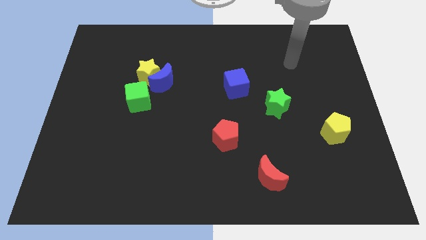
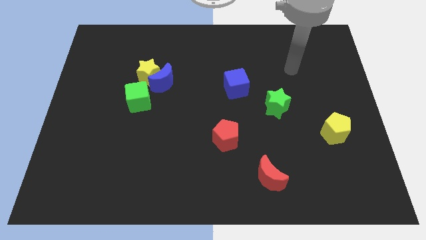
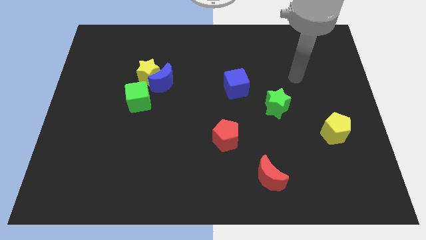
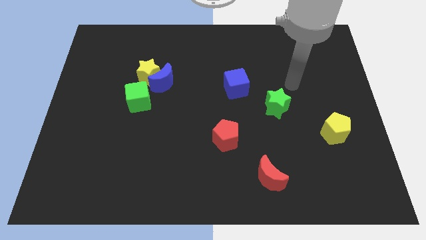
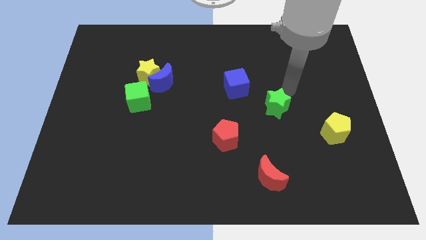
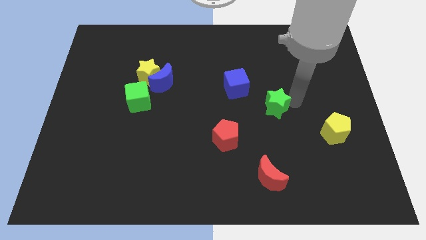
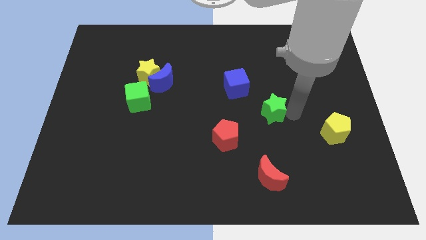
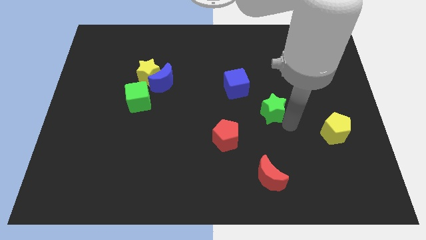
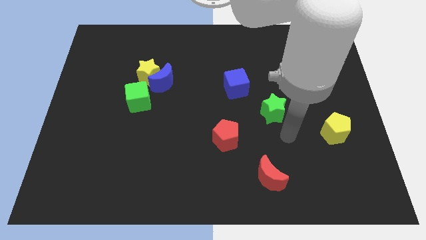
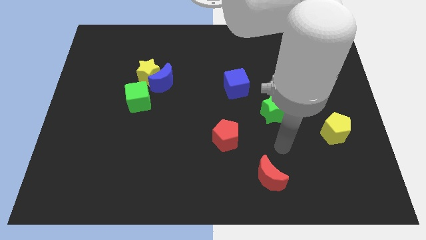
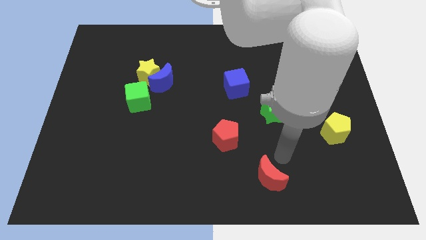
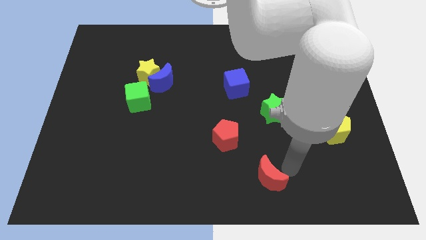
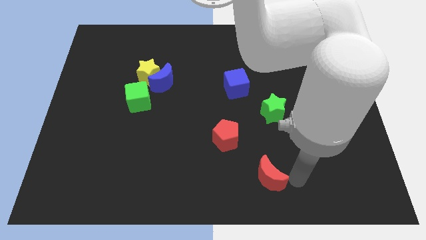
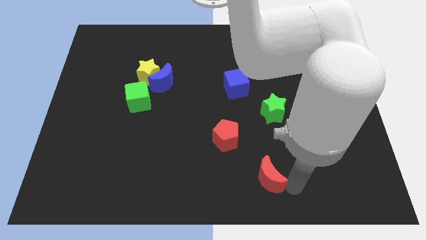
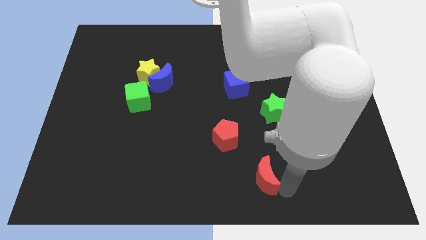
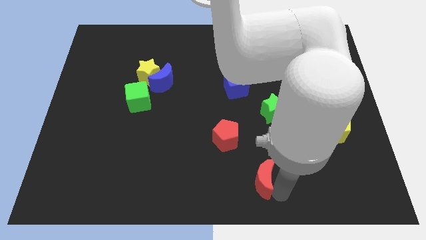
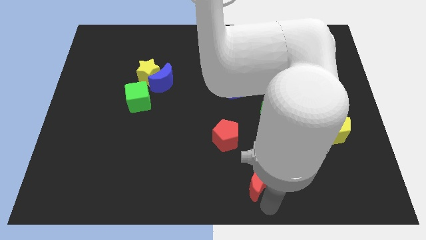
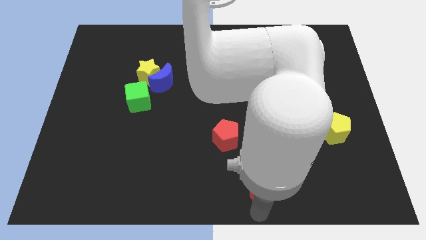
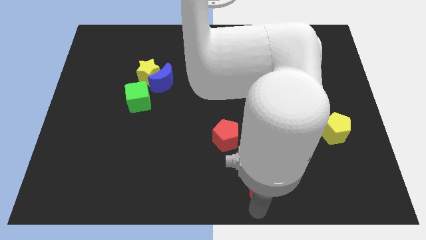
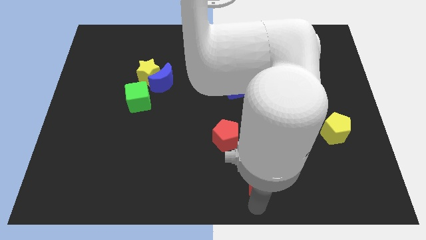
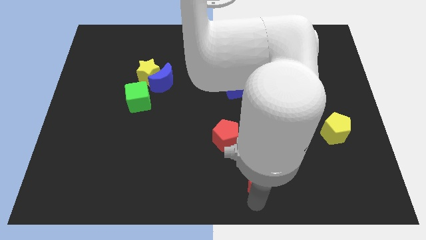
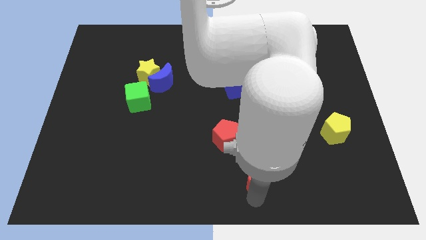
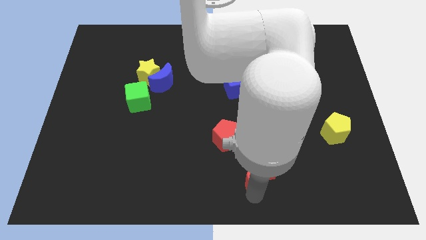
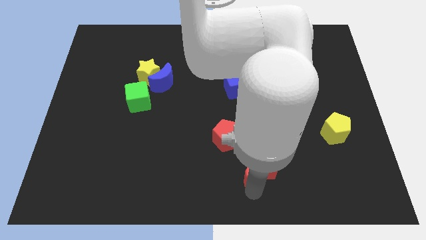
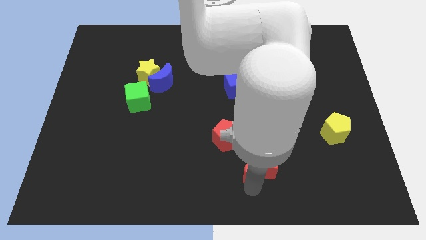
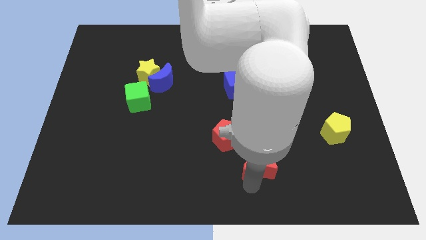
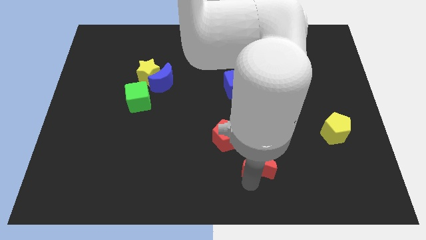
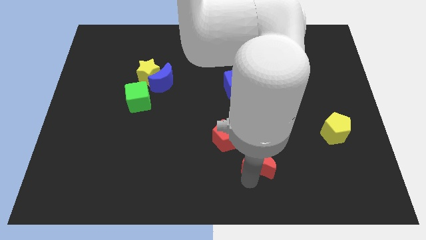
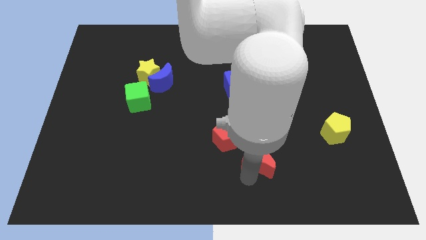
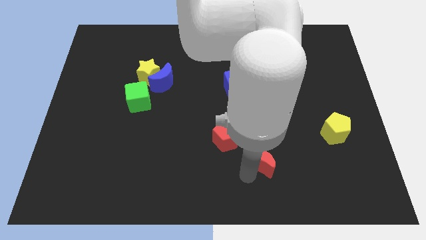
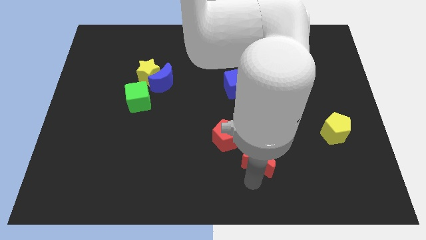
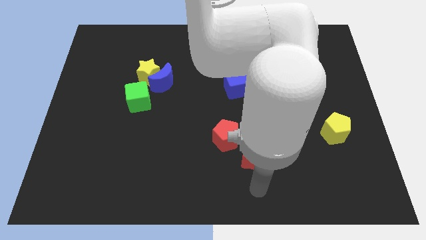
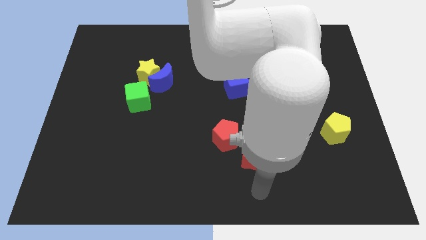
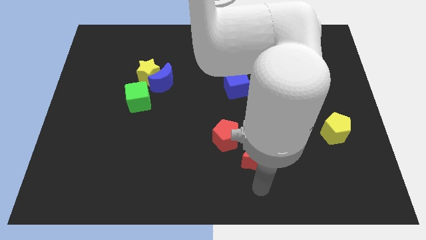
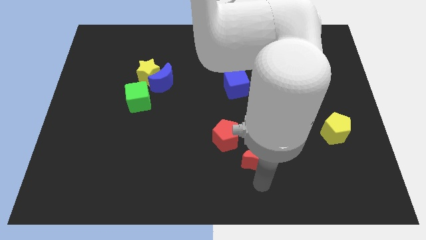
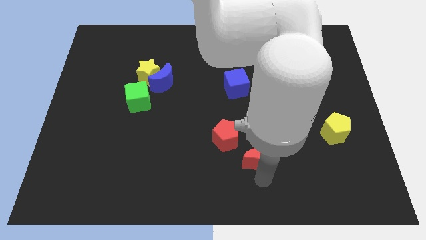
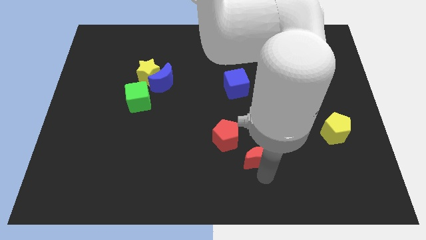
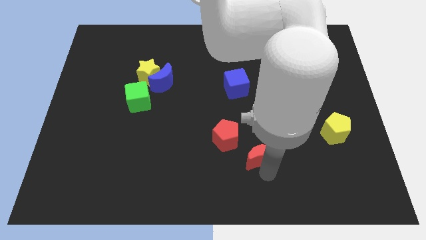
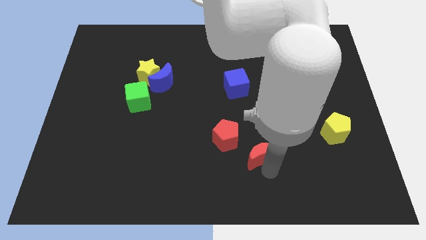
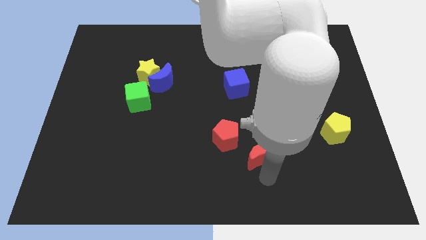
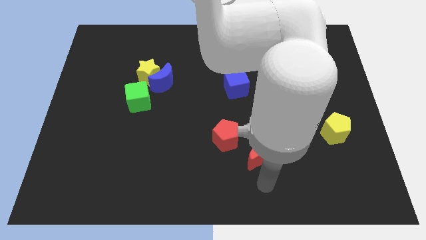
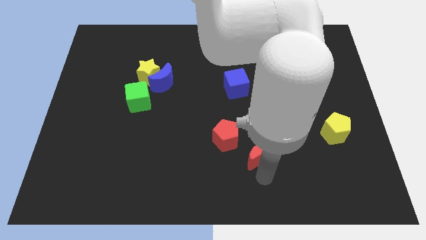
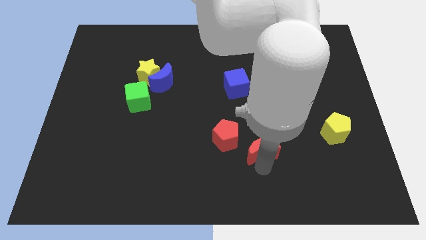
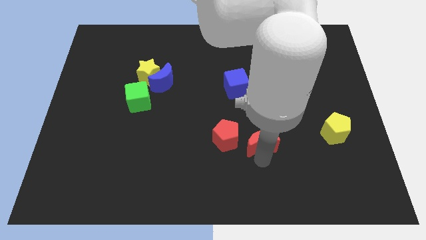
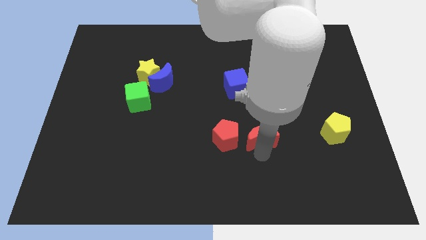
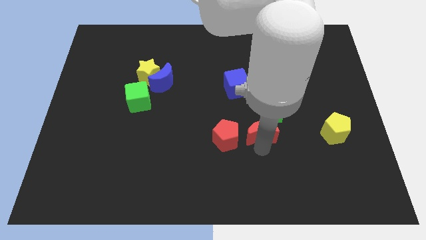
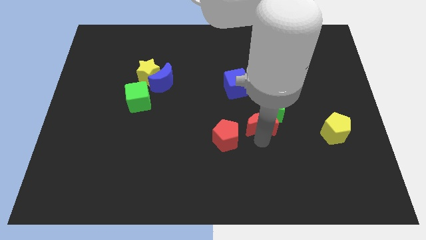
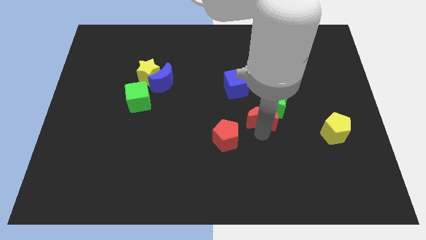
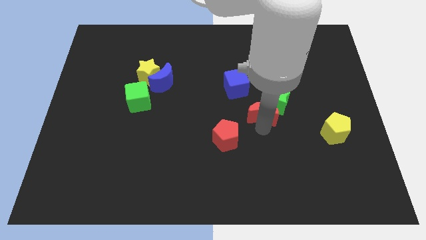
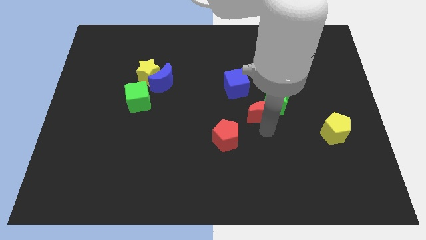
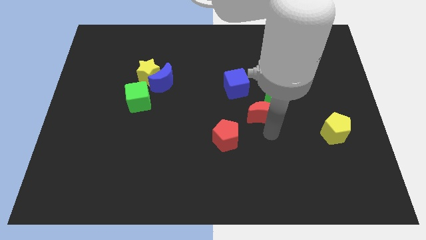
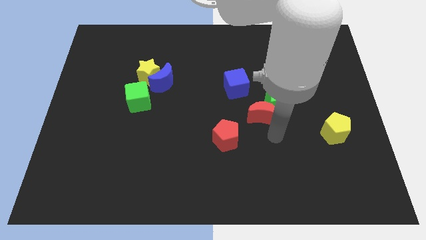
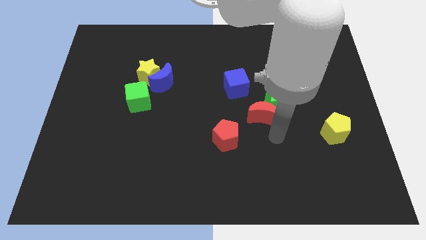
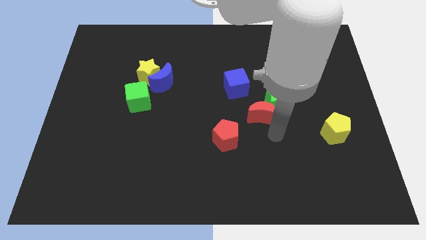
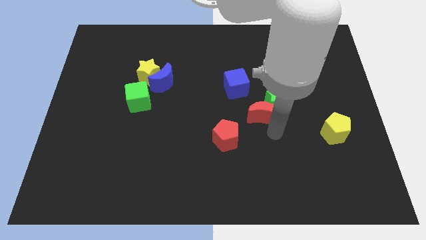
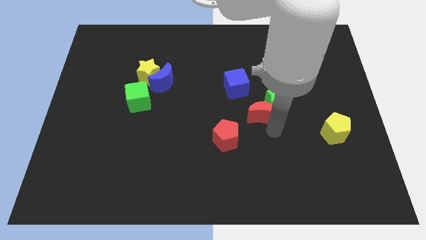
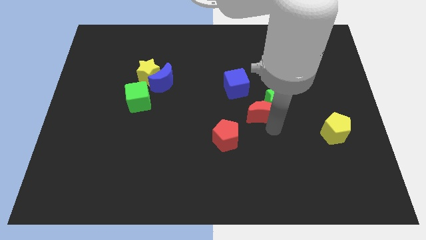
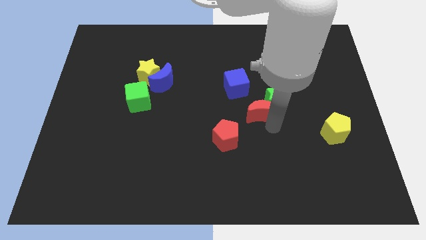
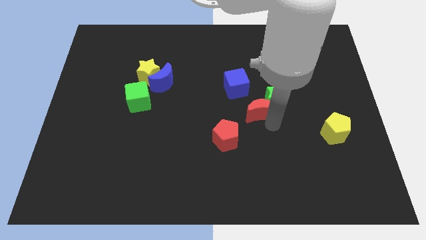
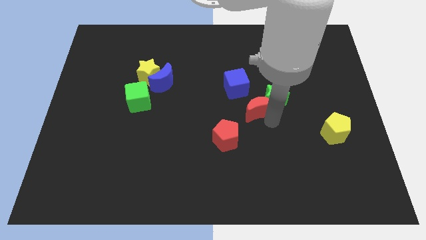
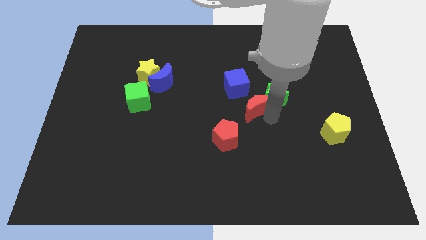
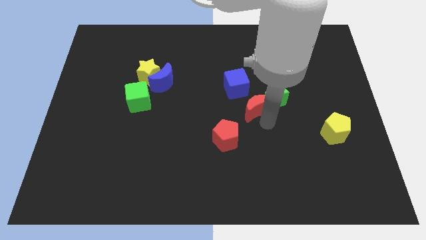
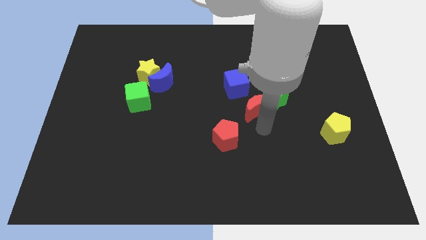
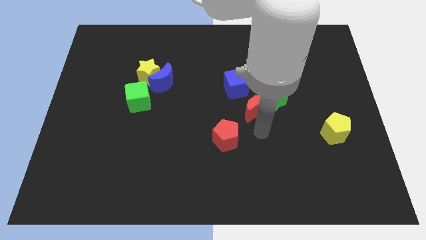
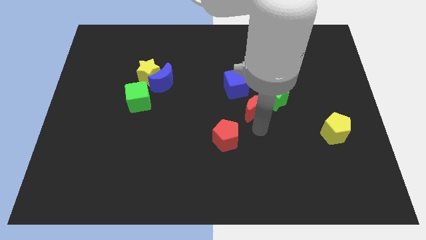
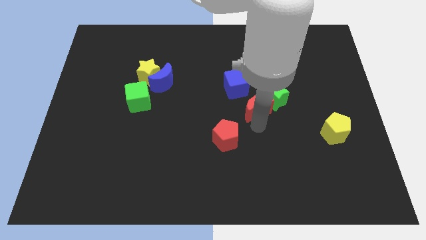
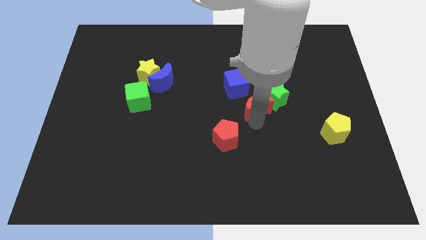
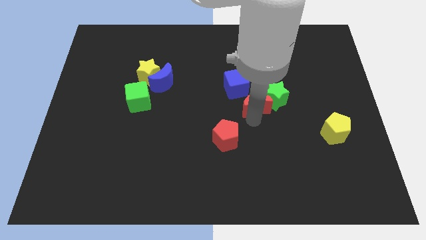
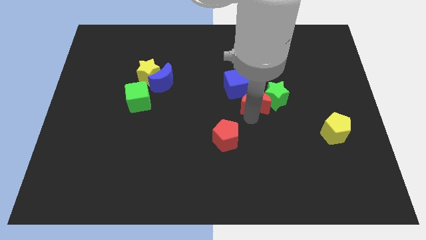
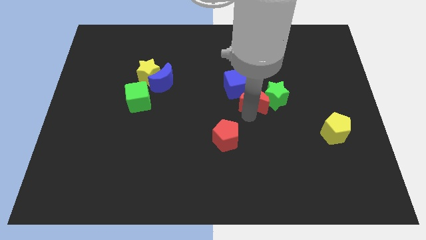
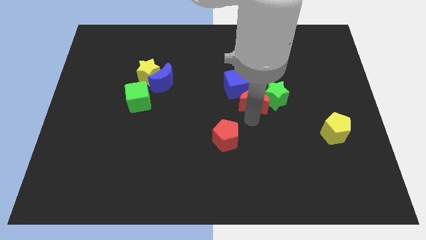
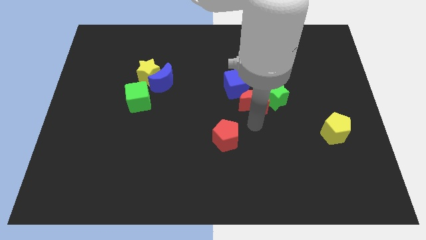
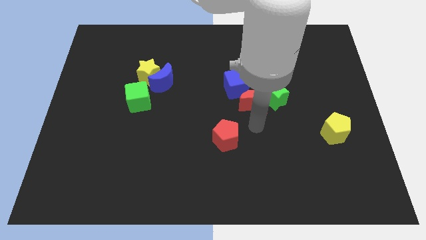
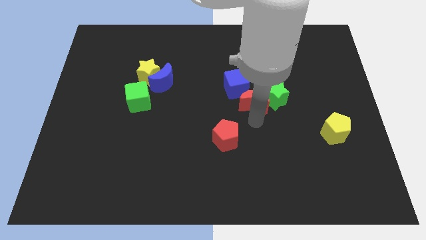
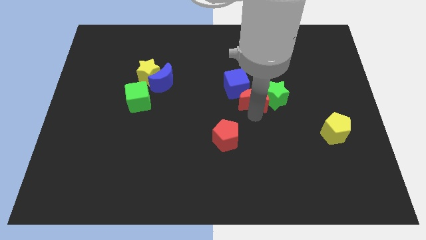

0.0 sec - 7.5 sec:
move the red moon to the top left of the green star
